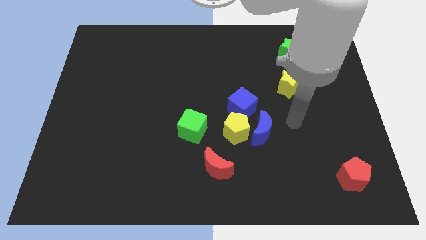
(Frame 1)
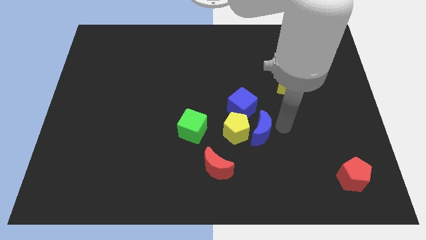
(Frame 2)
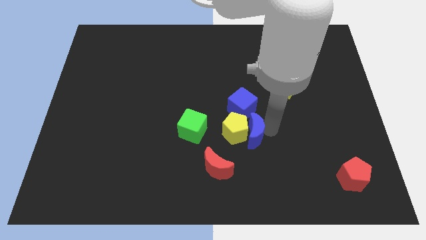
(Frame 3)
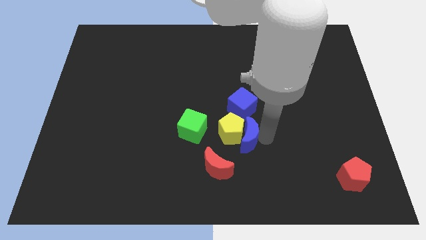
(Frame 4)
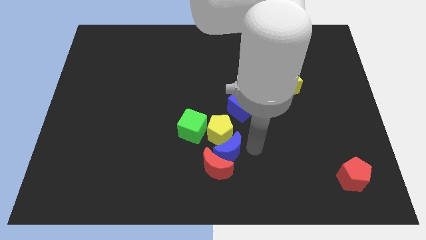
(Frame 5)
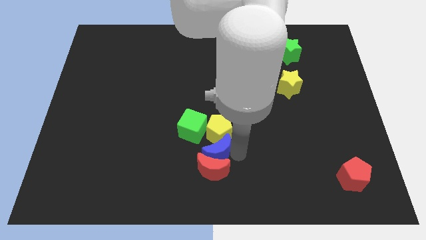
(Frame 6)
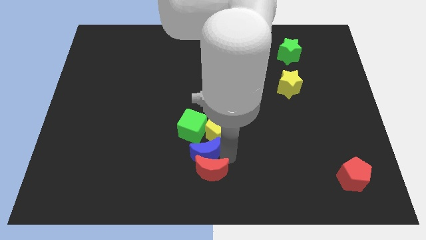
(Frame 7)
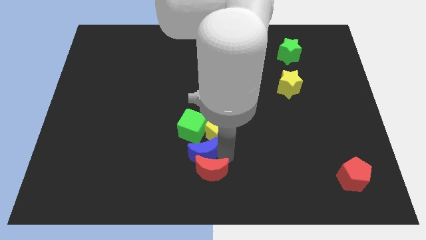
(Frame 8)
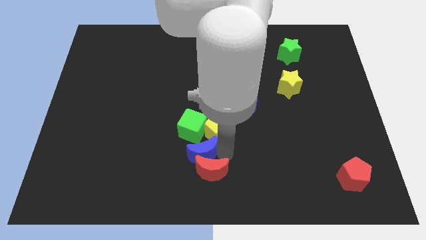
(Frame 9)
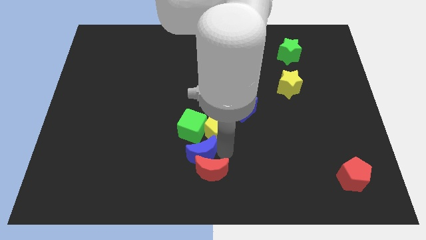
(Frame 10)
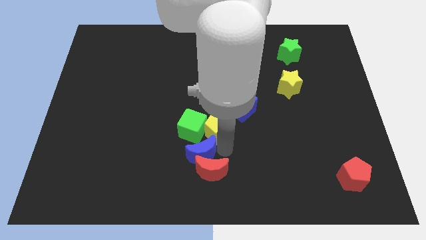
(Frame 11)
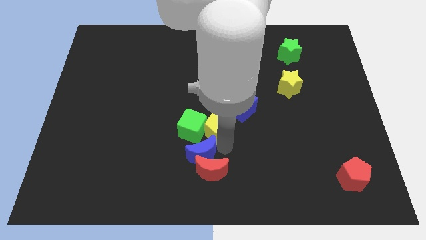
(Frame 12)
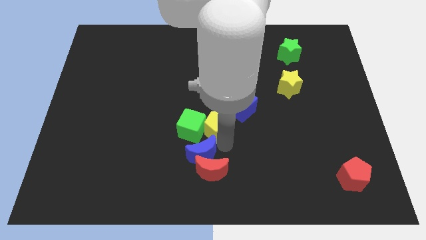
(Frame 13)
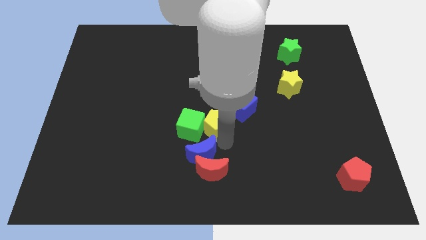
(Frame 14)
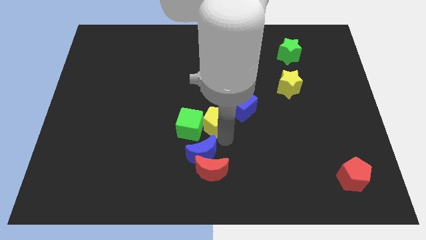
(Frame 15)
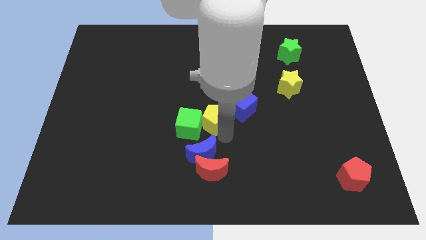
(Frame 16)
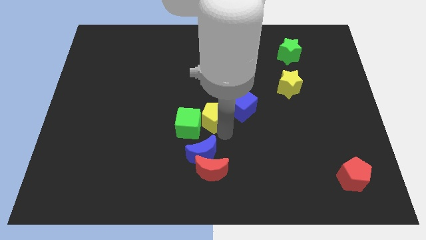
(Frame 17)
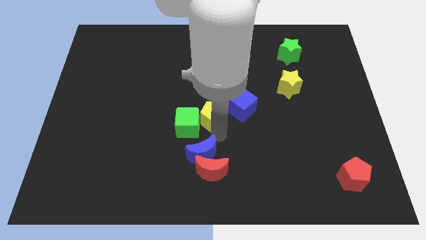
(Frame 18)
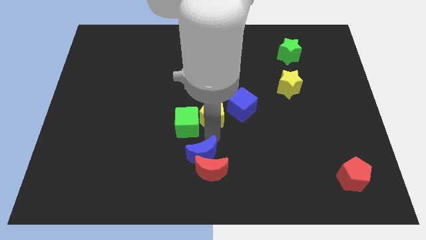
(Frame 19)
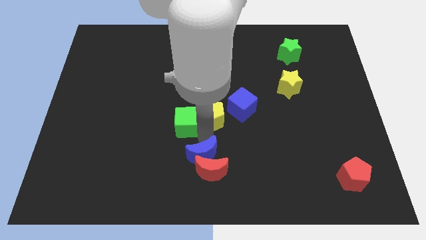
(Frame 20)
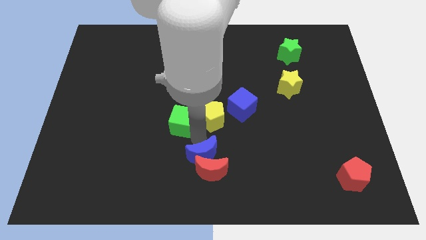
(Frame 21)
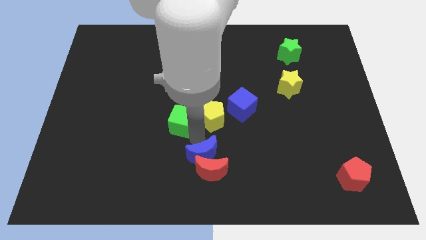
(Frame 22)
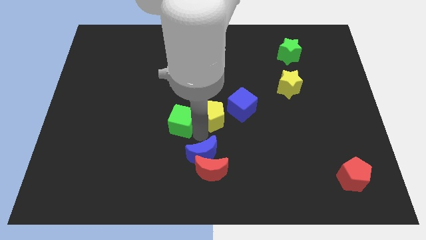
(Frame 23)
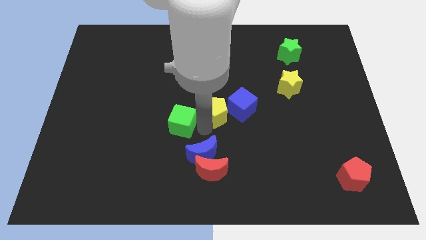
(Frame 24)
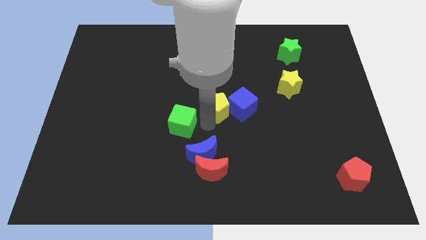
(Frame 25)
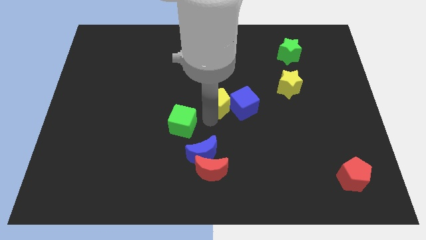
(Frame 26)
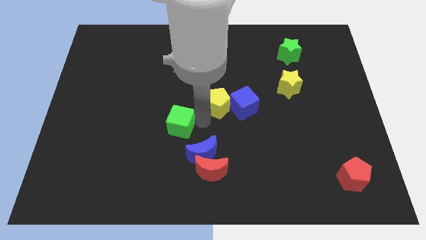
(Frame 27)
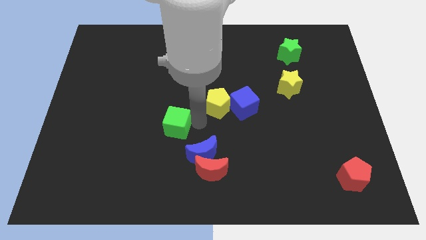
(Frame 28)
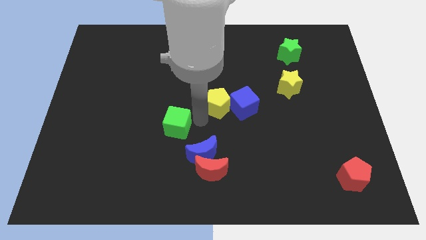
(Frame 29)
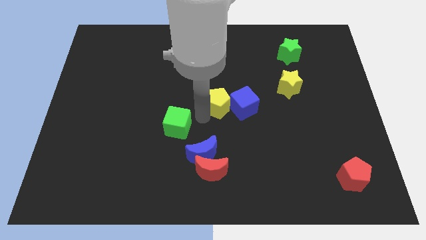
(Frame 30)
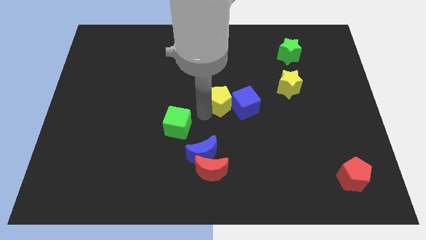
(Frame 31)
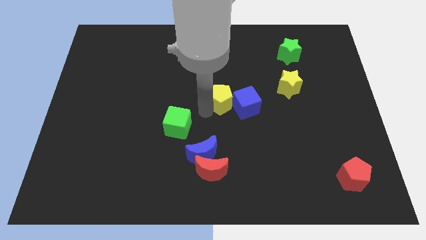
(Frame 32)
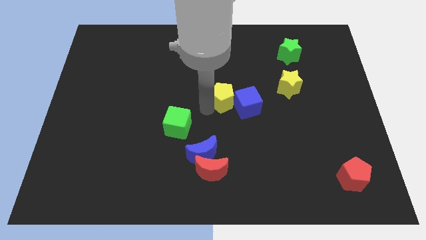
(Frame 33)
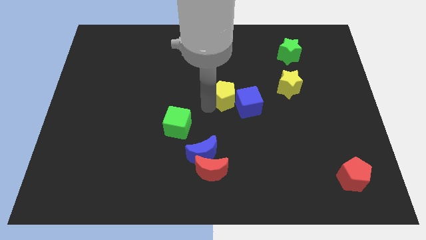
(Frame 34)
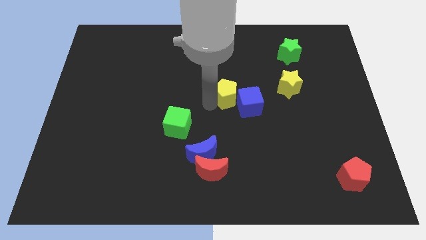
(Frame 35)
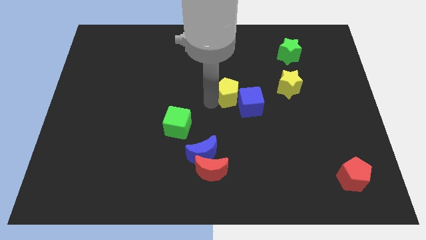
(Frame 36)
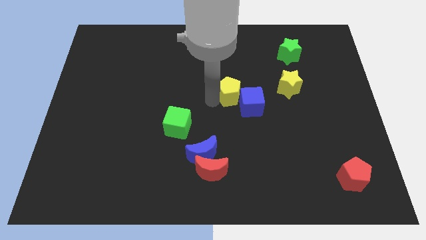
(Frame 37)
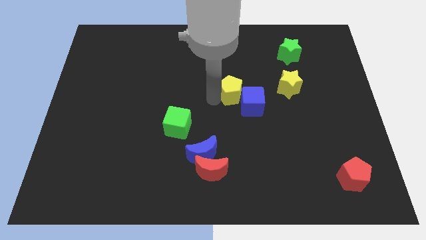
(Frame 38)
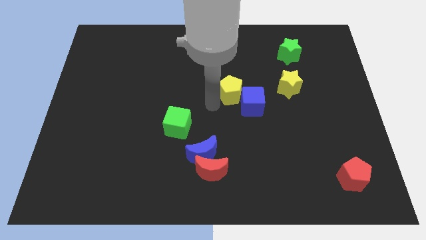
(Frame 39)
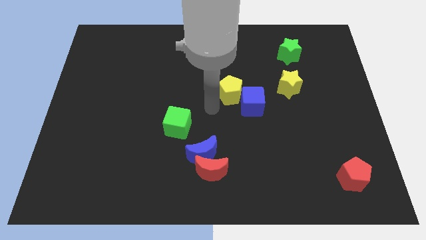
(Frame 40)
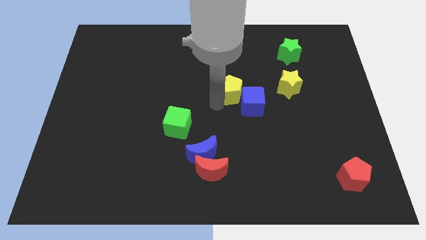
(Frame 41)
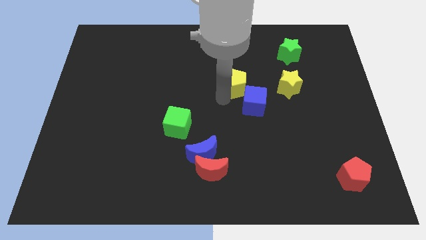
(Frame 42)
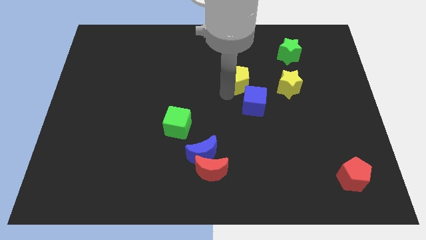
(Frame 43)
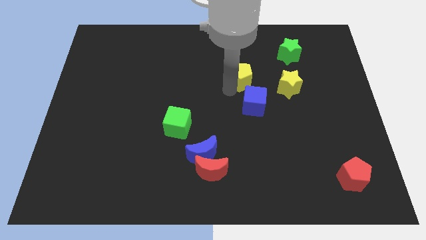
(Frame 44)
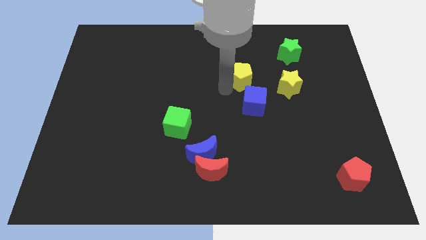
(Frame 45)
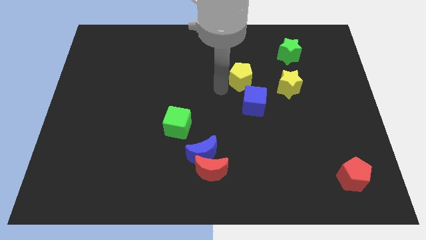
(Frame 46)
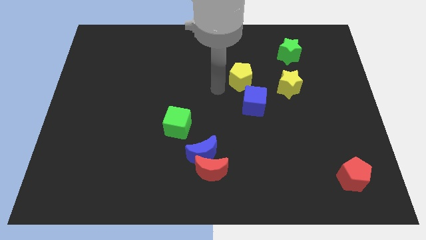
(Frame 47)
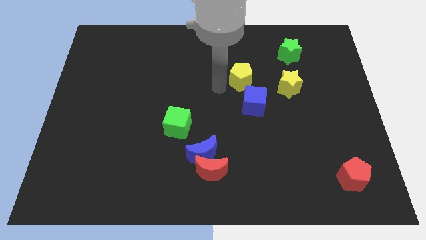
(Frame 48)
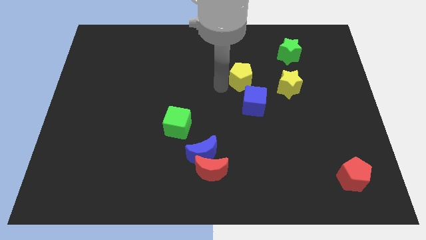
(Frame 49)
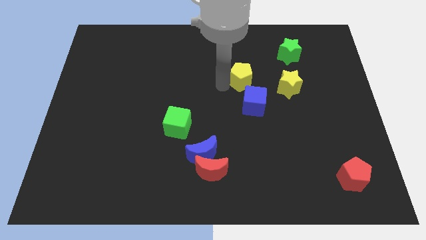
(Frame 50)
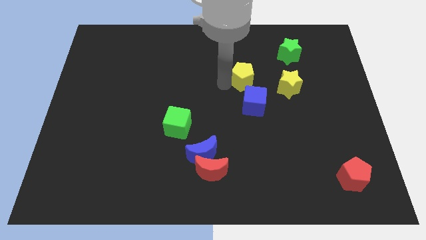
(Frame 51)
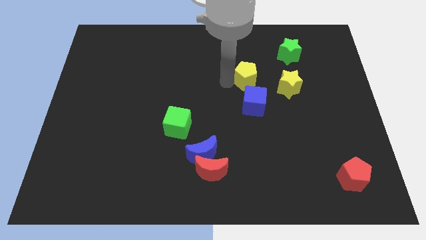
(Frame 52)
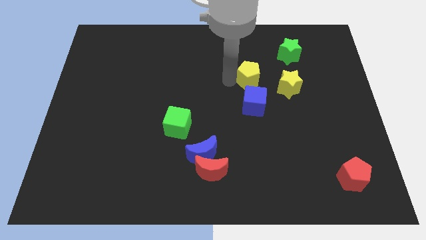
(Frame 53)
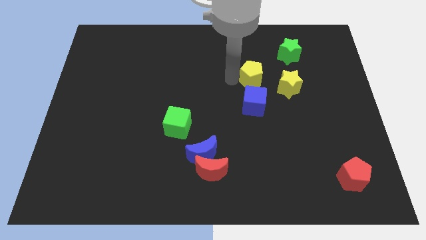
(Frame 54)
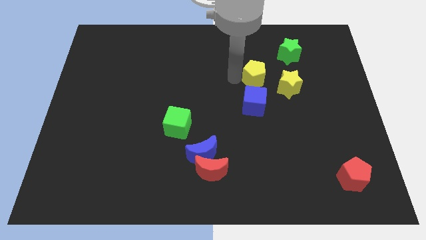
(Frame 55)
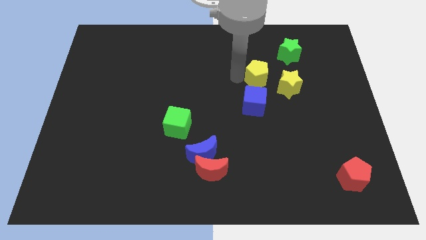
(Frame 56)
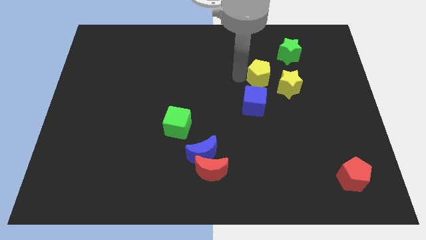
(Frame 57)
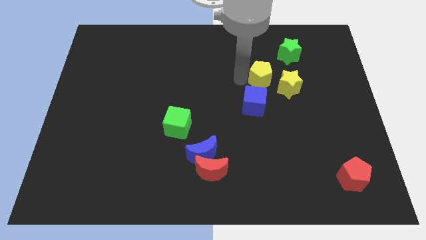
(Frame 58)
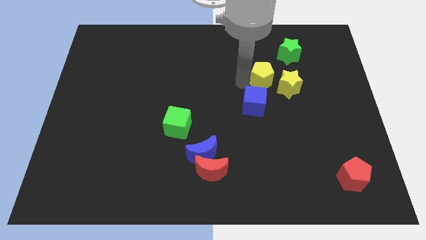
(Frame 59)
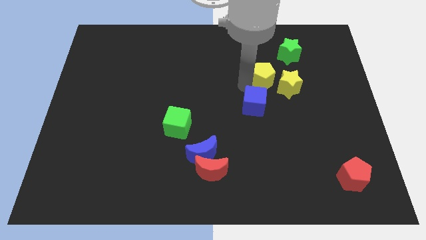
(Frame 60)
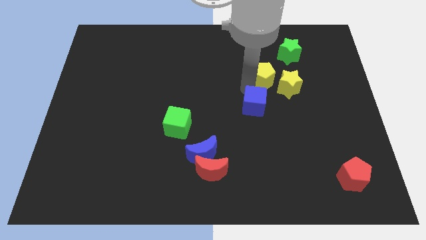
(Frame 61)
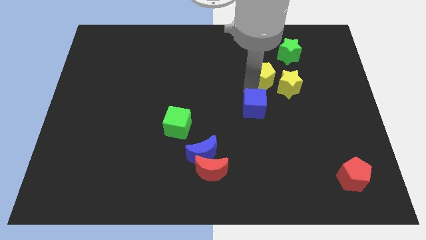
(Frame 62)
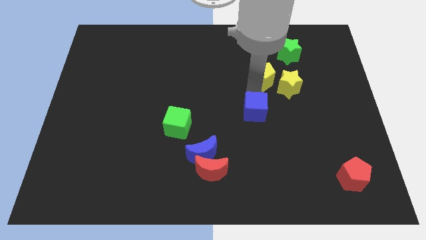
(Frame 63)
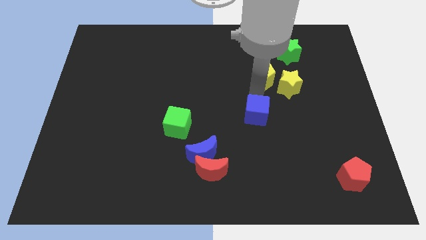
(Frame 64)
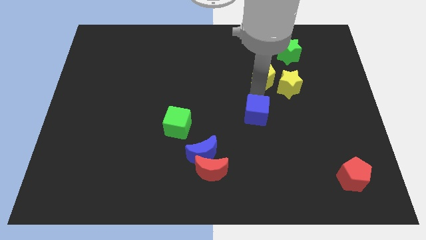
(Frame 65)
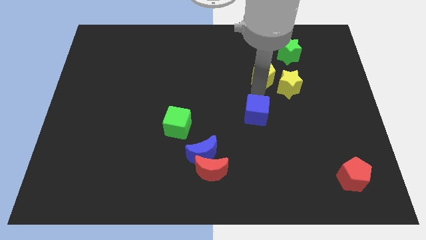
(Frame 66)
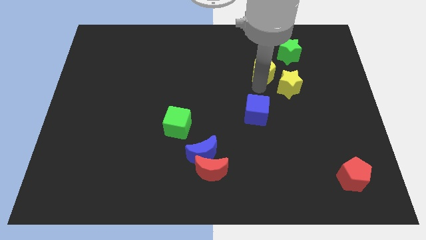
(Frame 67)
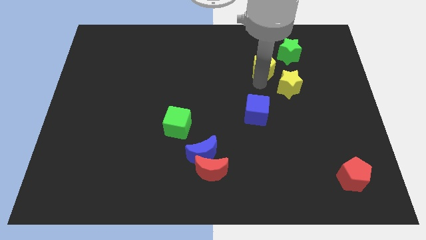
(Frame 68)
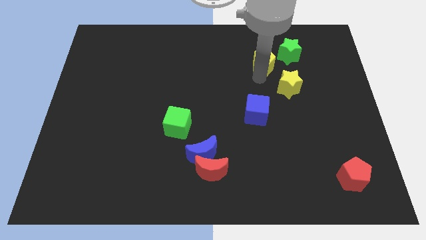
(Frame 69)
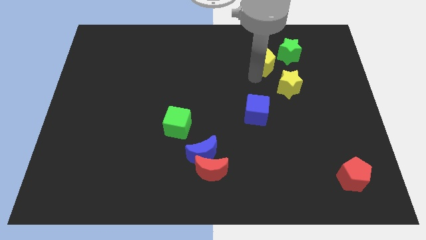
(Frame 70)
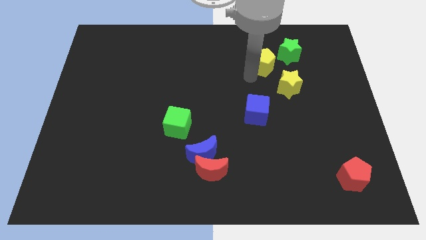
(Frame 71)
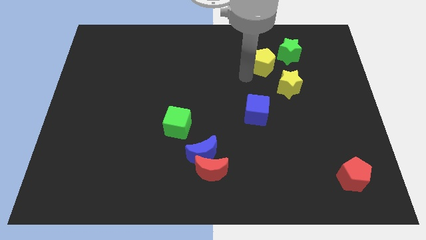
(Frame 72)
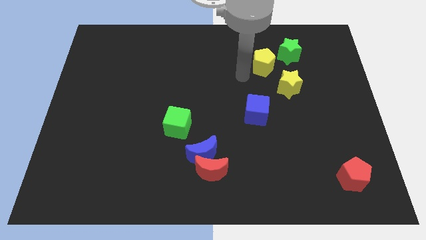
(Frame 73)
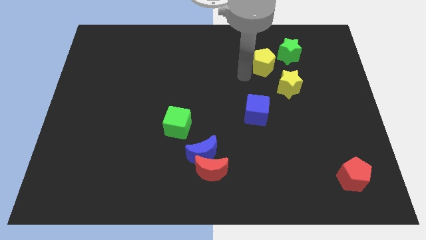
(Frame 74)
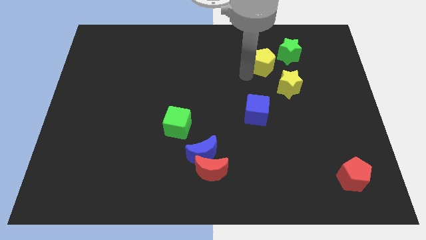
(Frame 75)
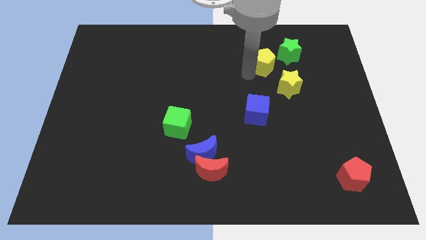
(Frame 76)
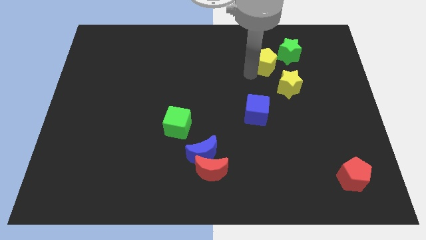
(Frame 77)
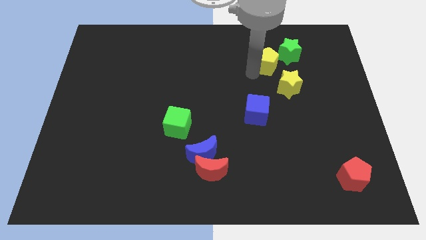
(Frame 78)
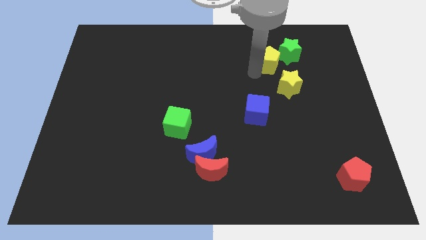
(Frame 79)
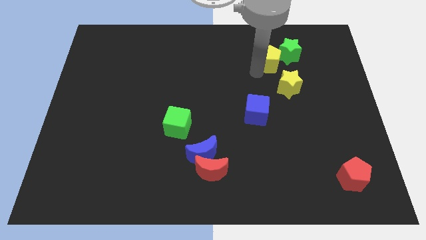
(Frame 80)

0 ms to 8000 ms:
move the yellow pentagon towards the green star
